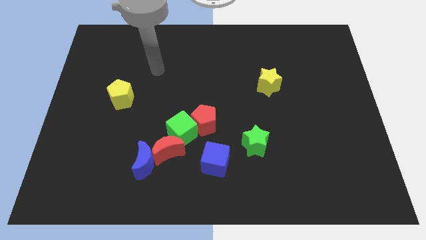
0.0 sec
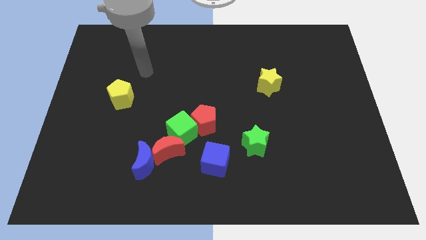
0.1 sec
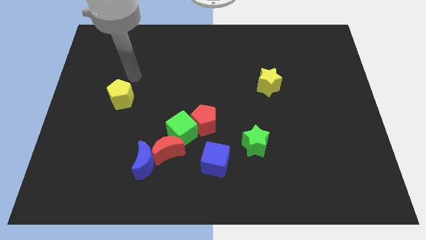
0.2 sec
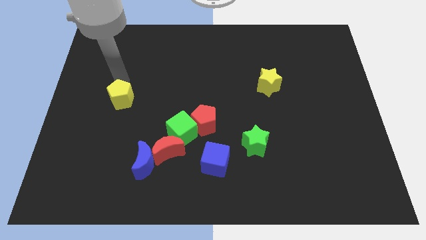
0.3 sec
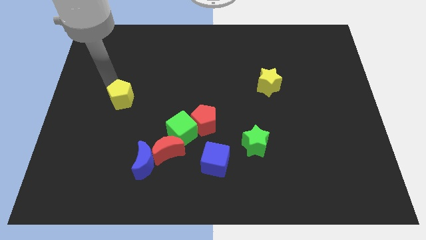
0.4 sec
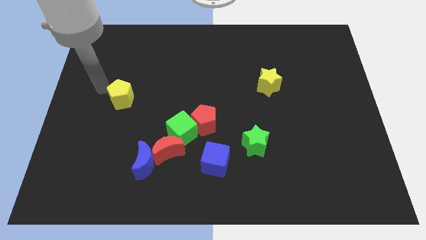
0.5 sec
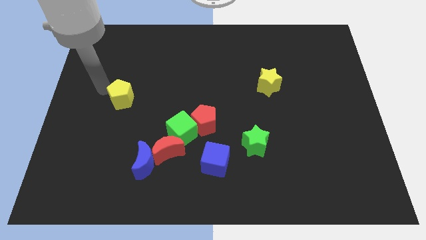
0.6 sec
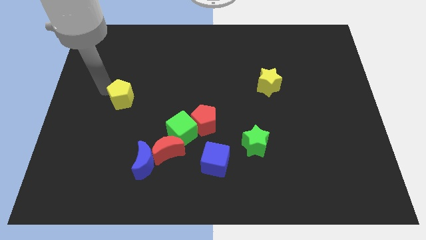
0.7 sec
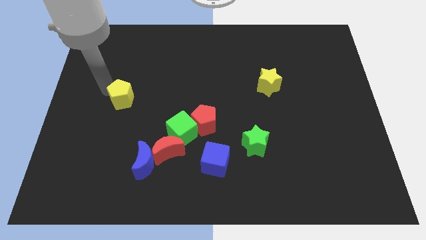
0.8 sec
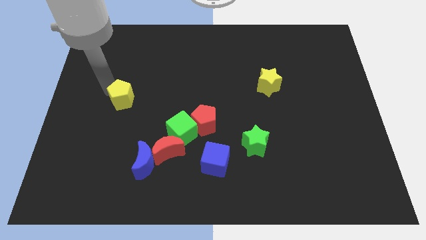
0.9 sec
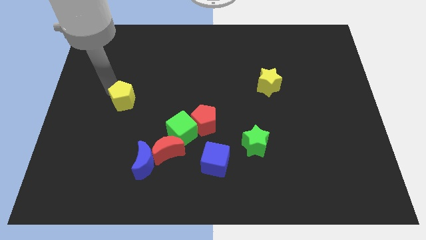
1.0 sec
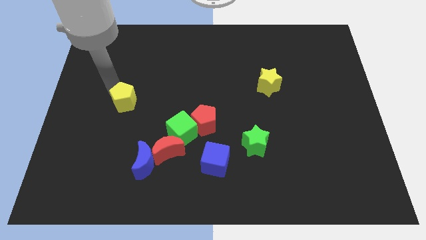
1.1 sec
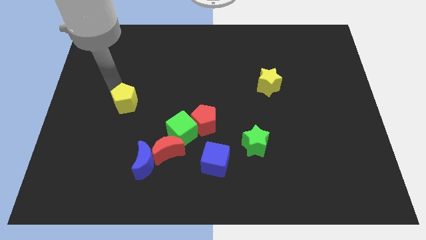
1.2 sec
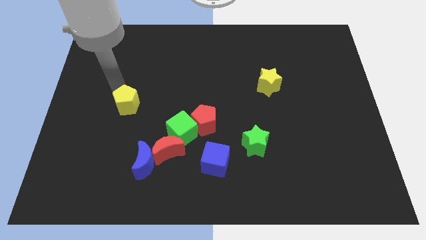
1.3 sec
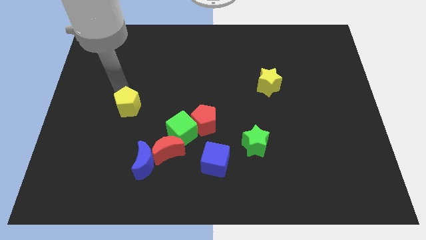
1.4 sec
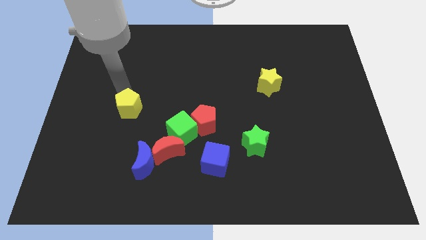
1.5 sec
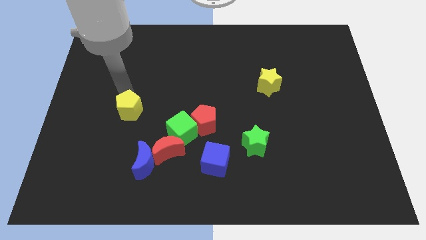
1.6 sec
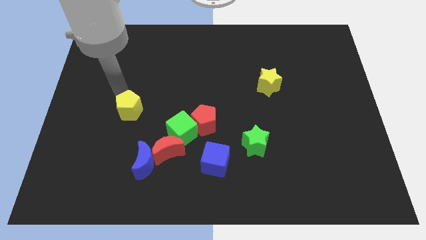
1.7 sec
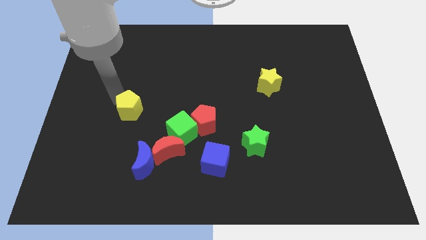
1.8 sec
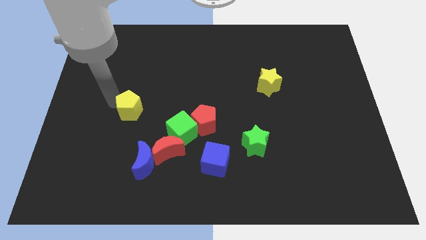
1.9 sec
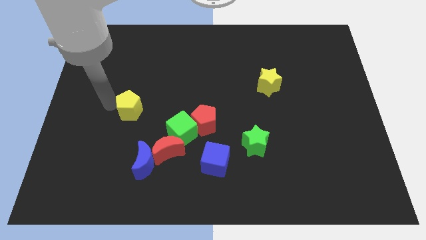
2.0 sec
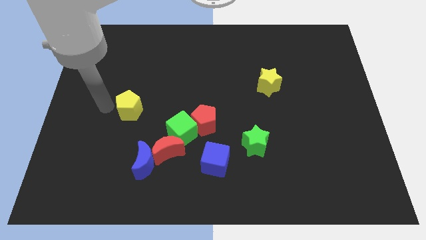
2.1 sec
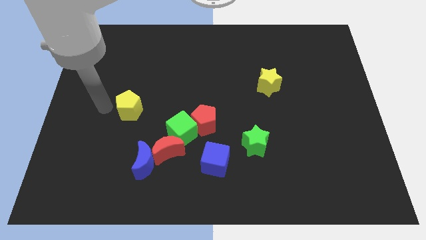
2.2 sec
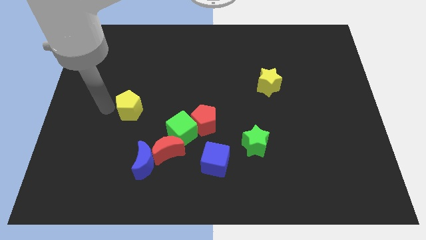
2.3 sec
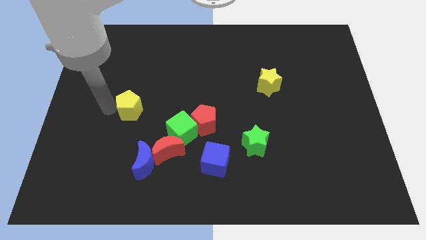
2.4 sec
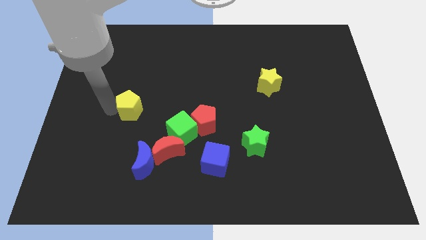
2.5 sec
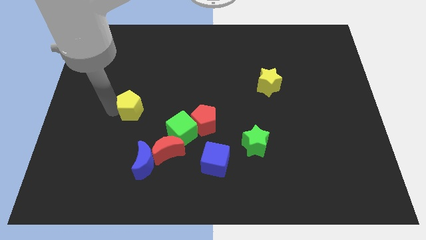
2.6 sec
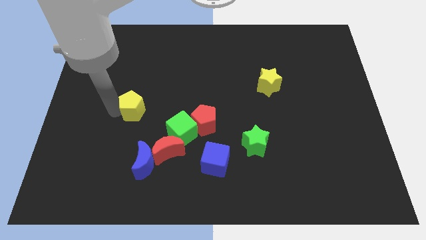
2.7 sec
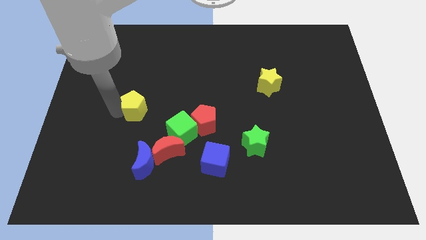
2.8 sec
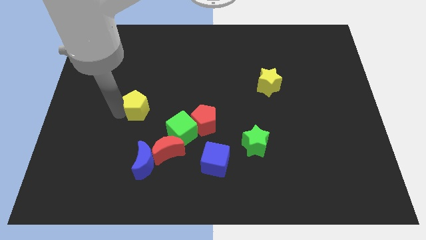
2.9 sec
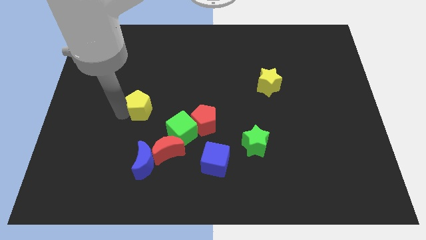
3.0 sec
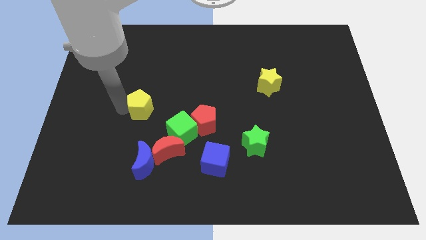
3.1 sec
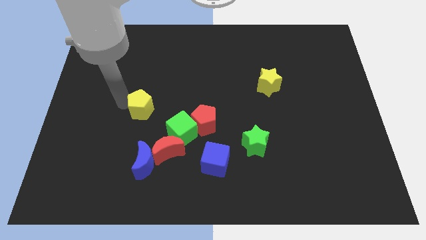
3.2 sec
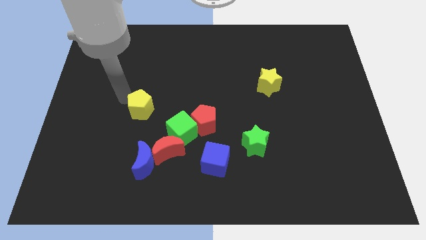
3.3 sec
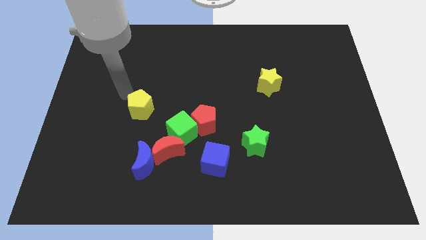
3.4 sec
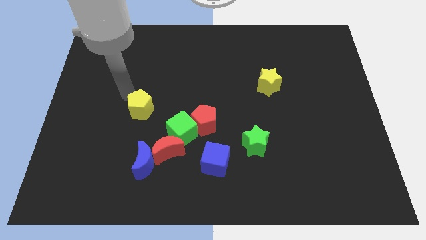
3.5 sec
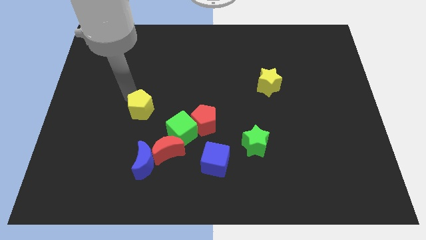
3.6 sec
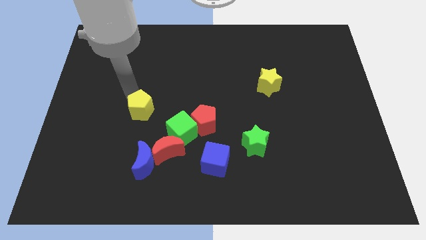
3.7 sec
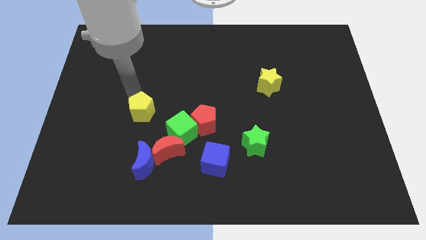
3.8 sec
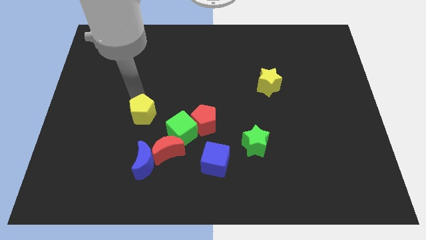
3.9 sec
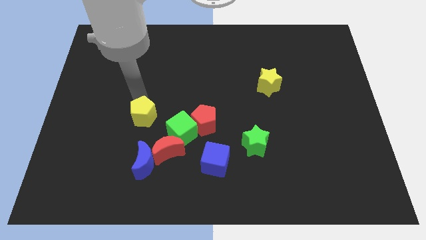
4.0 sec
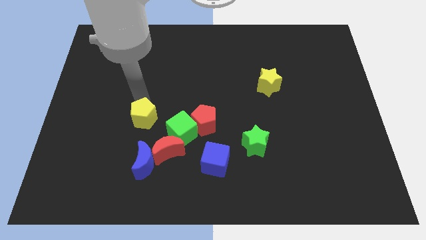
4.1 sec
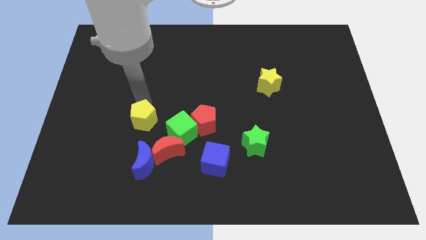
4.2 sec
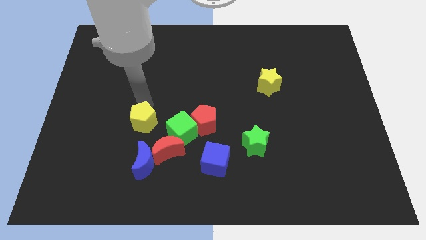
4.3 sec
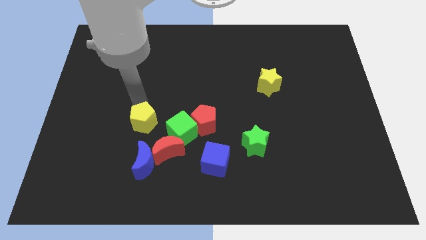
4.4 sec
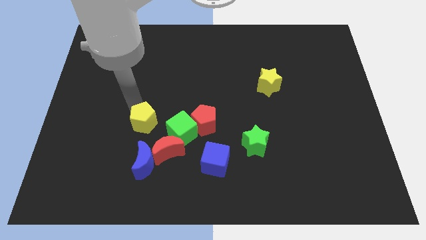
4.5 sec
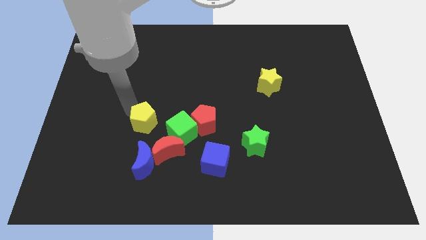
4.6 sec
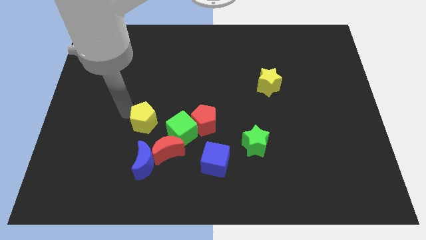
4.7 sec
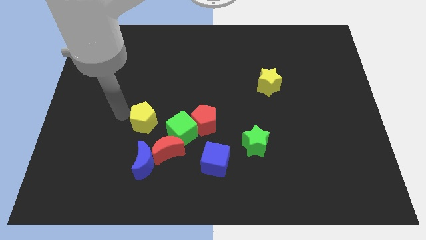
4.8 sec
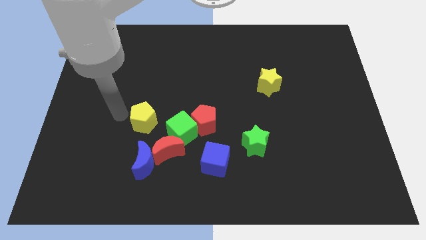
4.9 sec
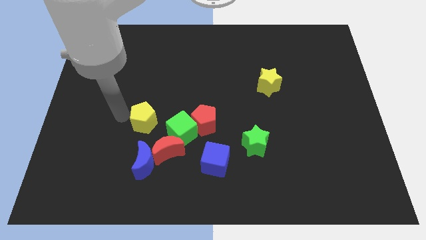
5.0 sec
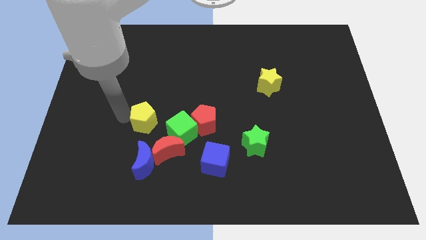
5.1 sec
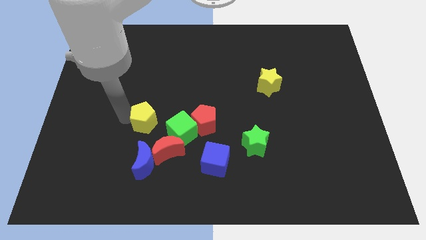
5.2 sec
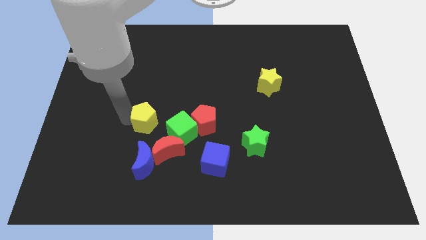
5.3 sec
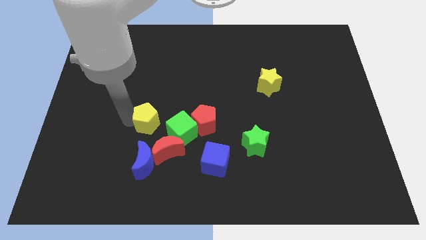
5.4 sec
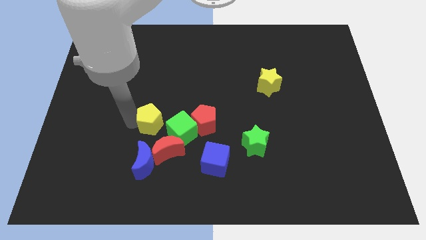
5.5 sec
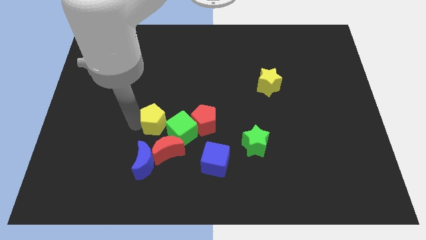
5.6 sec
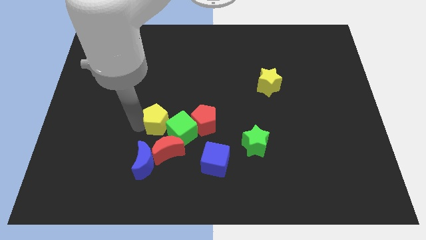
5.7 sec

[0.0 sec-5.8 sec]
push the yellow pentagon to the green cube

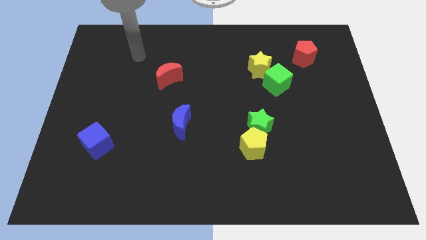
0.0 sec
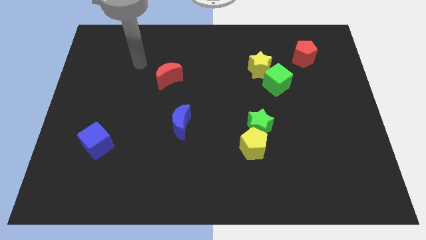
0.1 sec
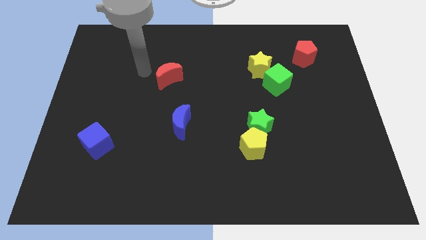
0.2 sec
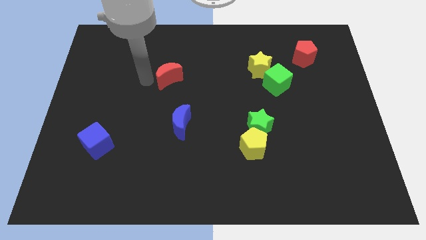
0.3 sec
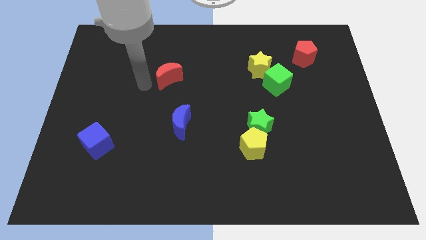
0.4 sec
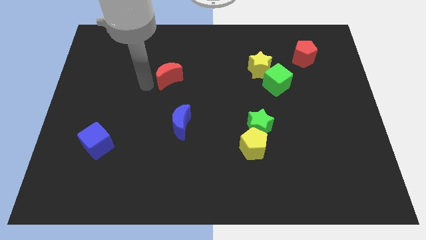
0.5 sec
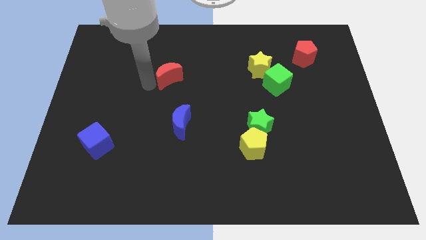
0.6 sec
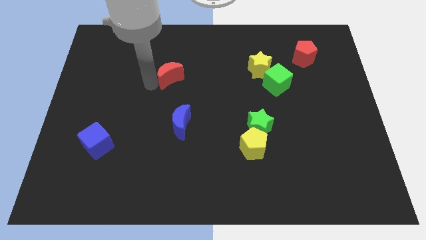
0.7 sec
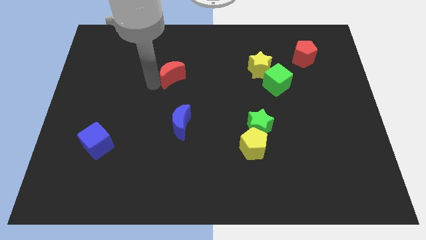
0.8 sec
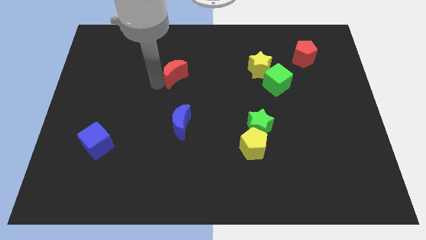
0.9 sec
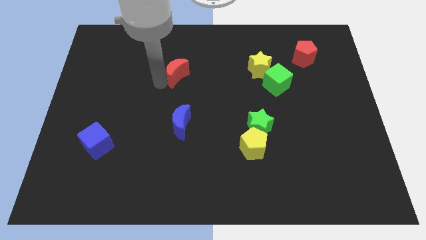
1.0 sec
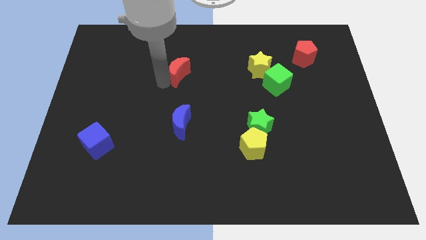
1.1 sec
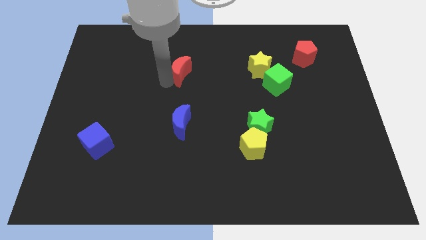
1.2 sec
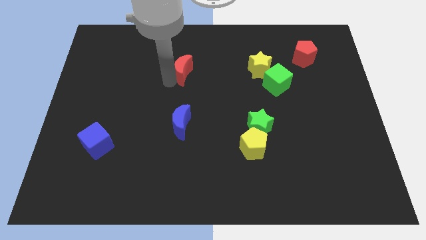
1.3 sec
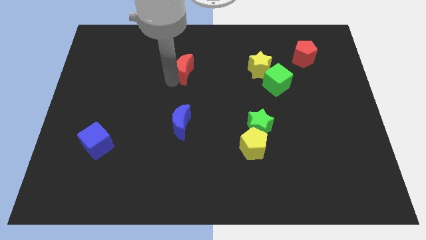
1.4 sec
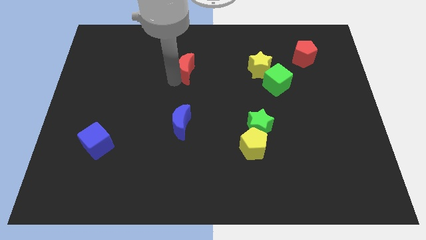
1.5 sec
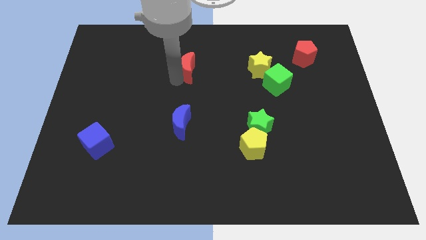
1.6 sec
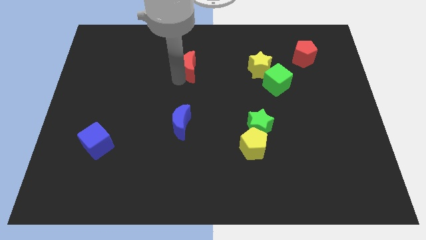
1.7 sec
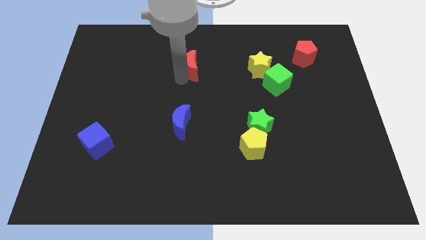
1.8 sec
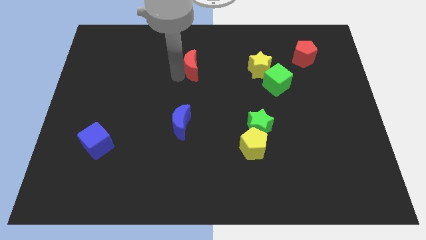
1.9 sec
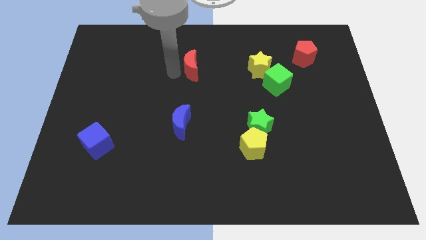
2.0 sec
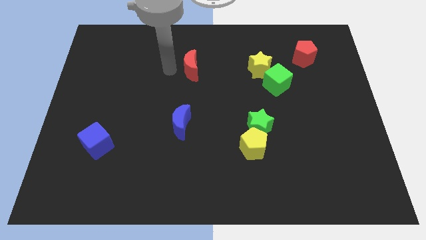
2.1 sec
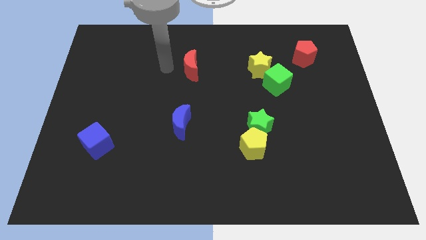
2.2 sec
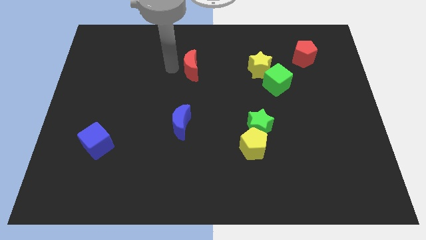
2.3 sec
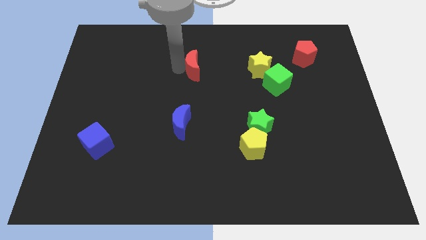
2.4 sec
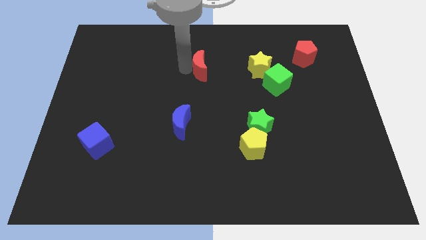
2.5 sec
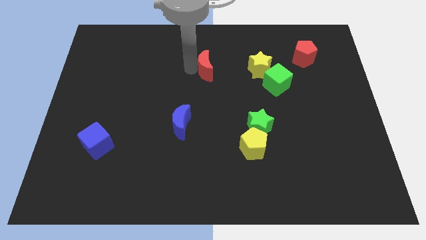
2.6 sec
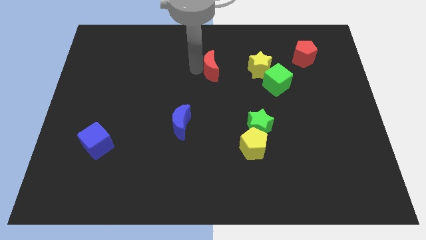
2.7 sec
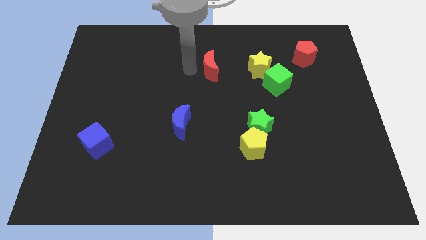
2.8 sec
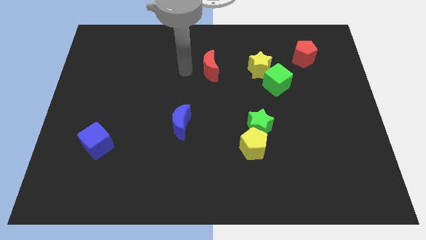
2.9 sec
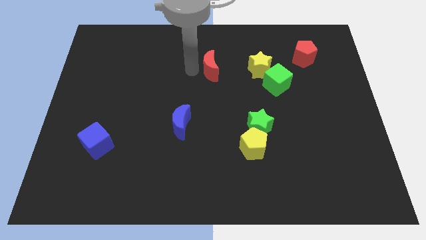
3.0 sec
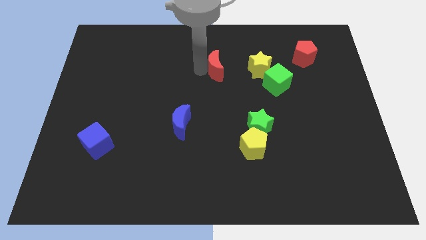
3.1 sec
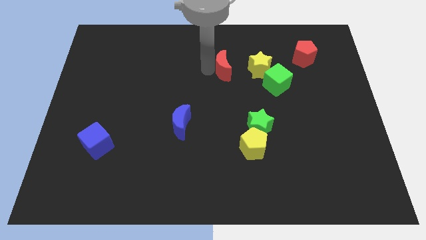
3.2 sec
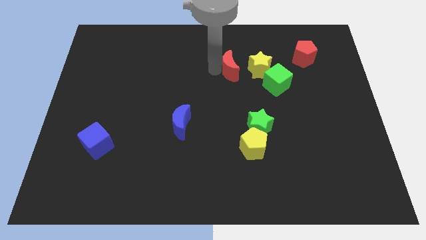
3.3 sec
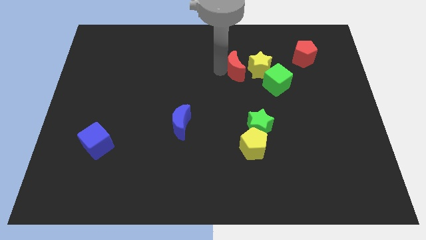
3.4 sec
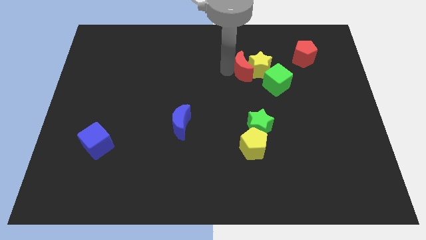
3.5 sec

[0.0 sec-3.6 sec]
put the red moon towards the yellow star
